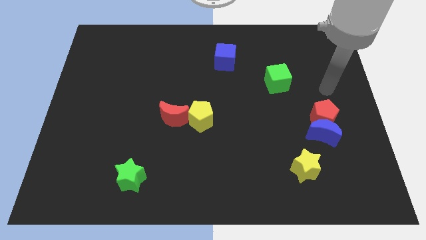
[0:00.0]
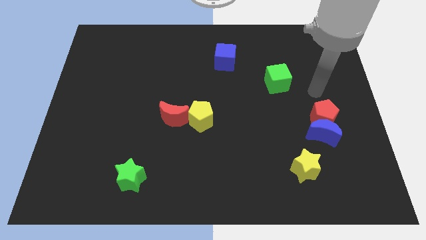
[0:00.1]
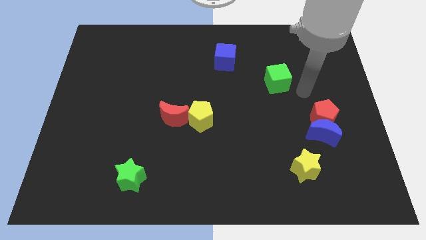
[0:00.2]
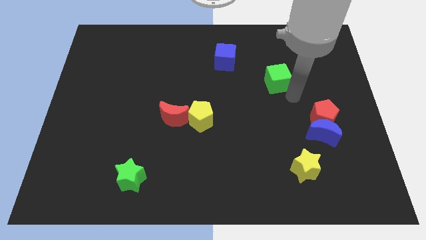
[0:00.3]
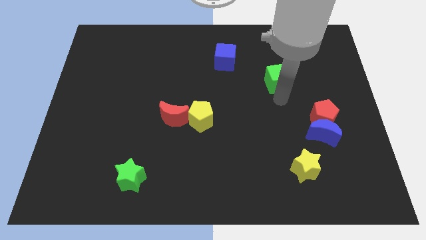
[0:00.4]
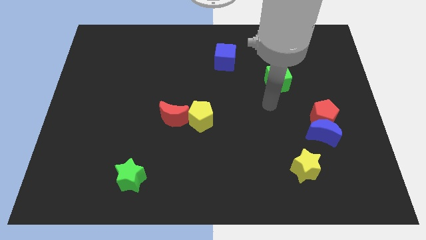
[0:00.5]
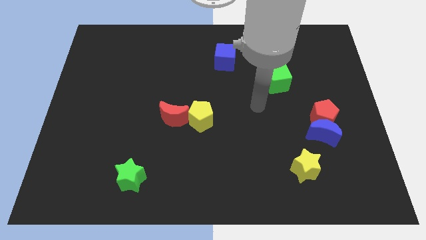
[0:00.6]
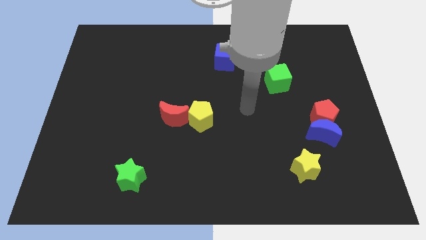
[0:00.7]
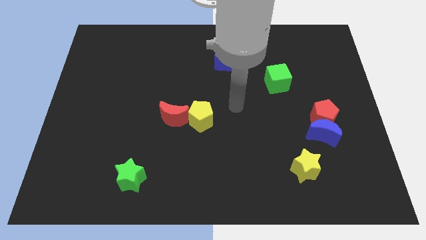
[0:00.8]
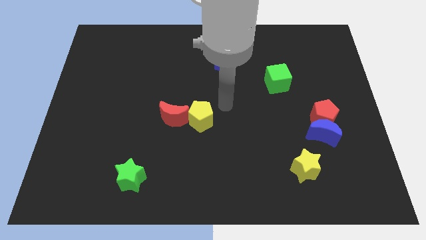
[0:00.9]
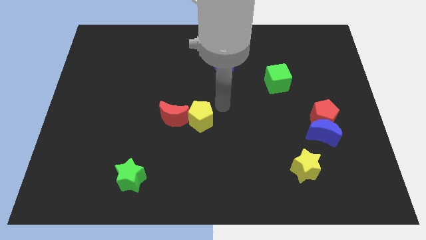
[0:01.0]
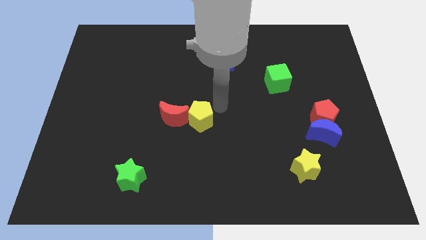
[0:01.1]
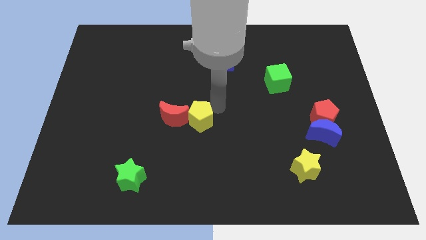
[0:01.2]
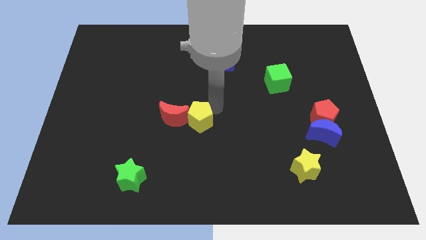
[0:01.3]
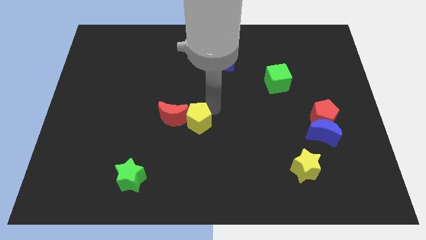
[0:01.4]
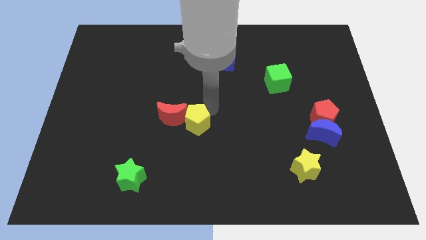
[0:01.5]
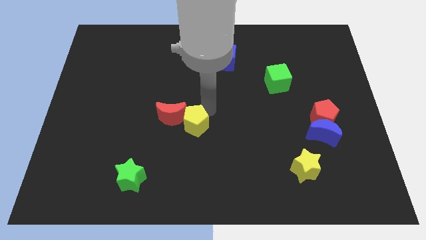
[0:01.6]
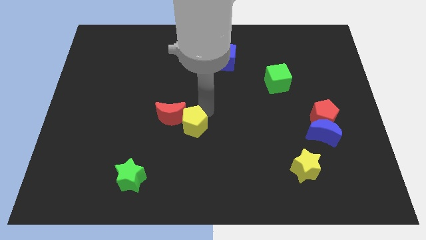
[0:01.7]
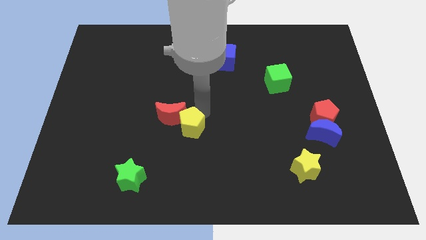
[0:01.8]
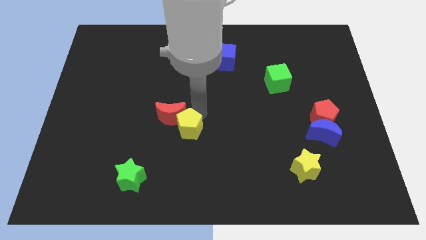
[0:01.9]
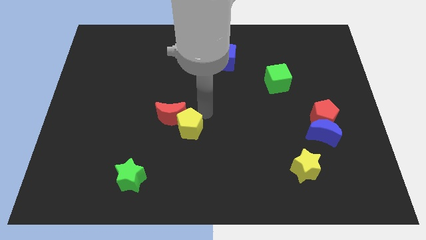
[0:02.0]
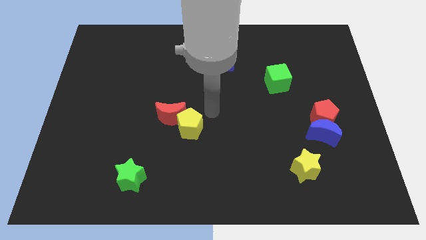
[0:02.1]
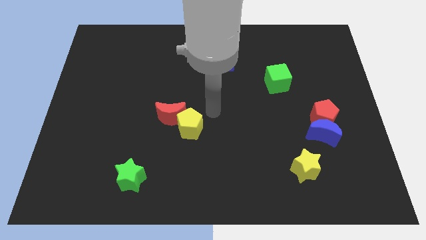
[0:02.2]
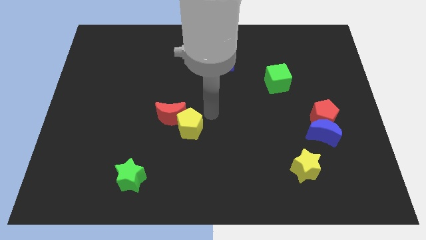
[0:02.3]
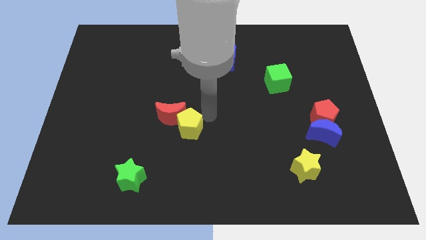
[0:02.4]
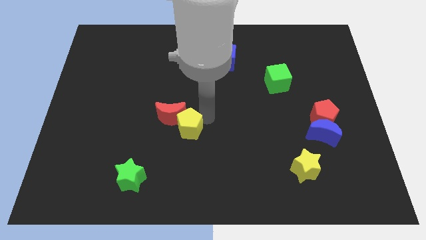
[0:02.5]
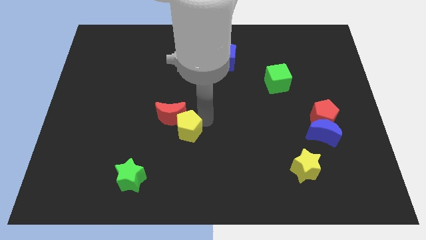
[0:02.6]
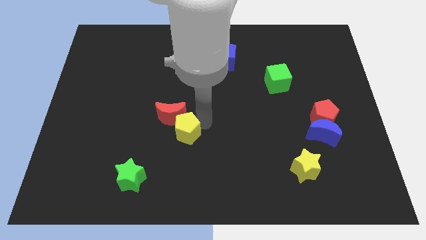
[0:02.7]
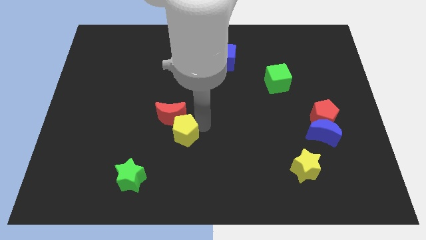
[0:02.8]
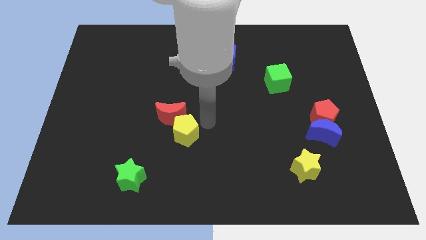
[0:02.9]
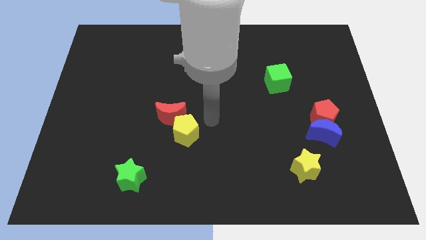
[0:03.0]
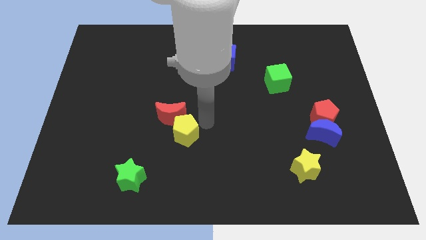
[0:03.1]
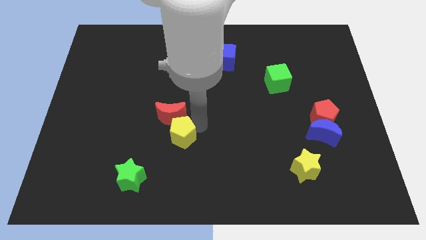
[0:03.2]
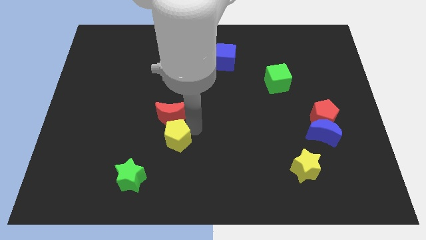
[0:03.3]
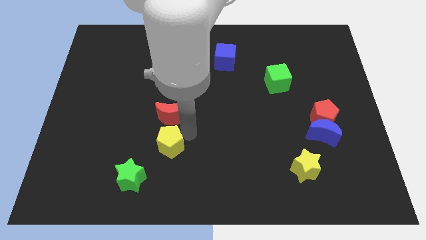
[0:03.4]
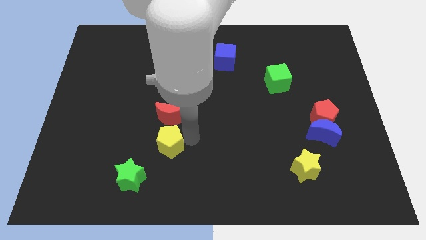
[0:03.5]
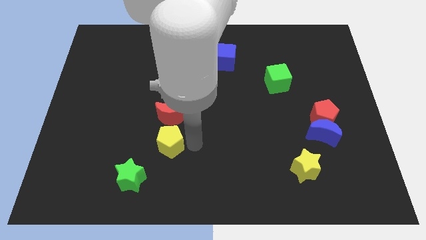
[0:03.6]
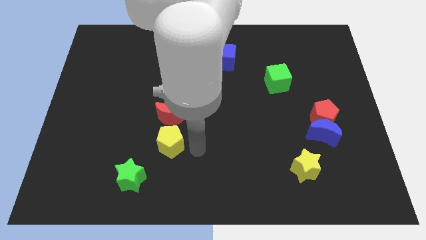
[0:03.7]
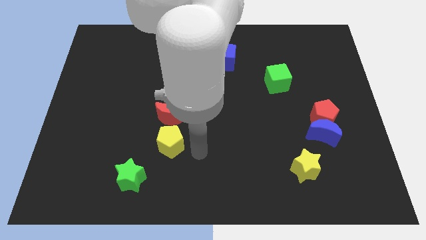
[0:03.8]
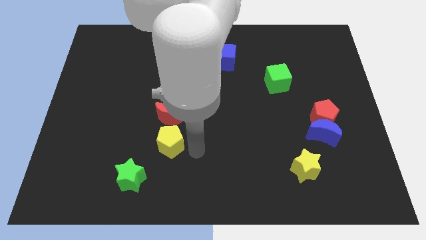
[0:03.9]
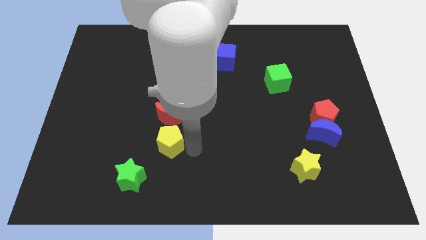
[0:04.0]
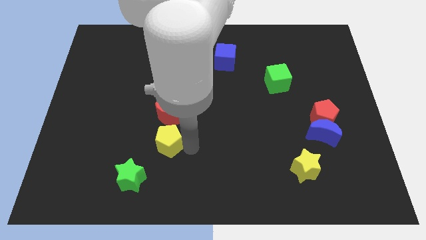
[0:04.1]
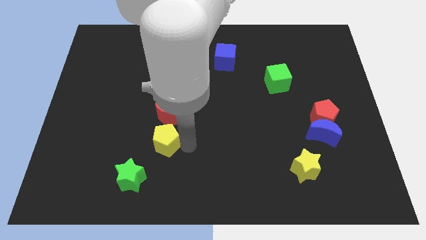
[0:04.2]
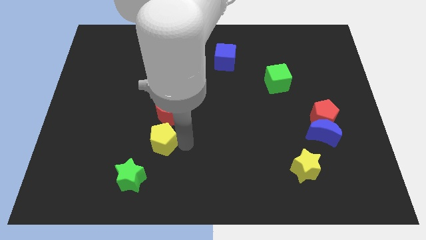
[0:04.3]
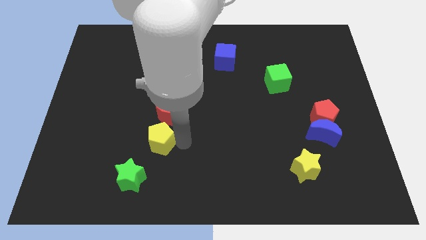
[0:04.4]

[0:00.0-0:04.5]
slightly move the yellow pentagon left

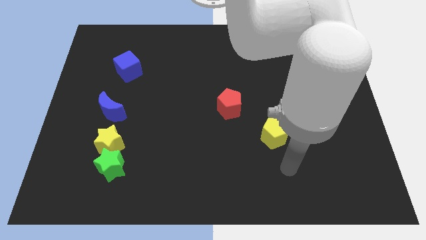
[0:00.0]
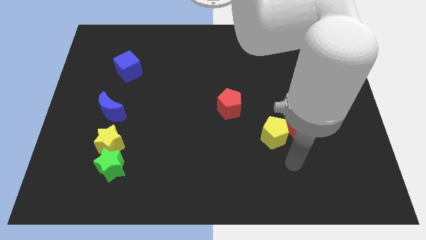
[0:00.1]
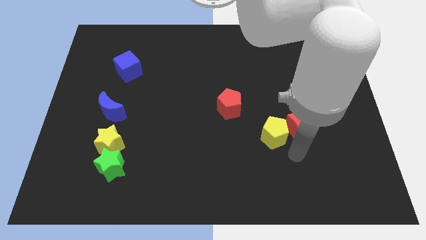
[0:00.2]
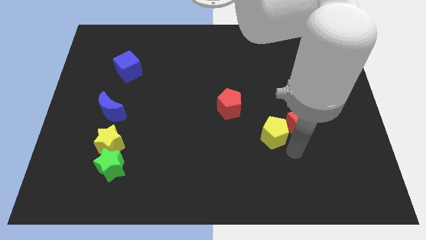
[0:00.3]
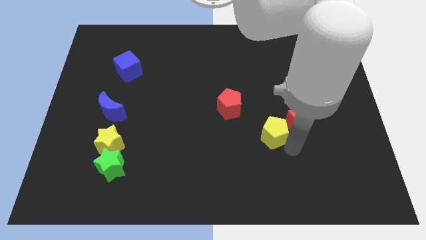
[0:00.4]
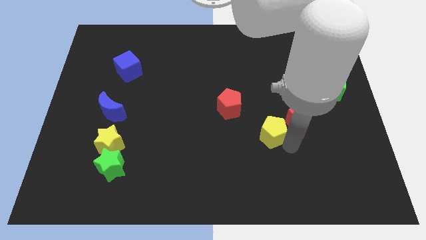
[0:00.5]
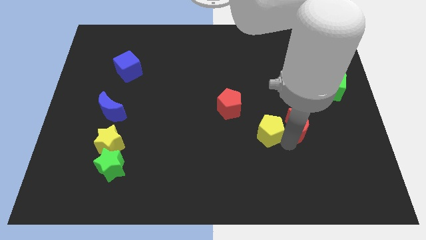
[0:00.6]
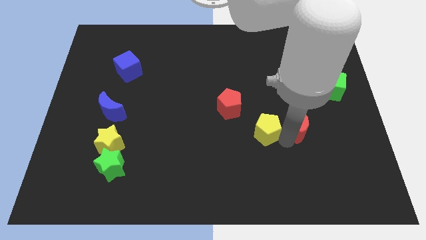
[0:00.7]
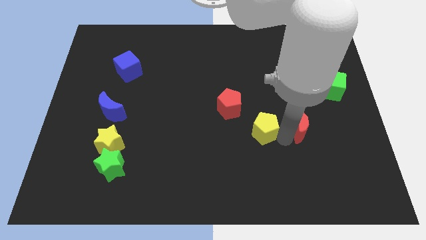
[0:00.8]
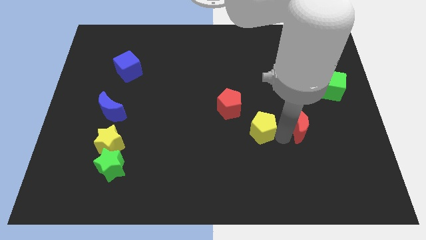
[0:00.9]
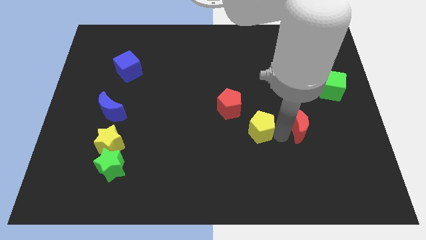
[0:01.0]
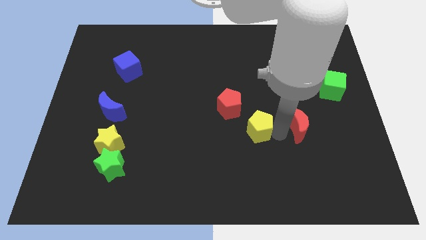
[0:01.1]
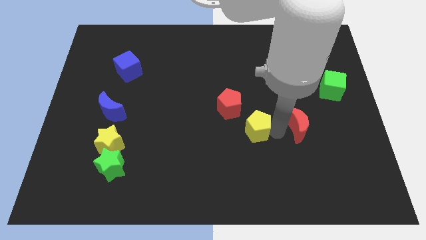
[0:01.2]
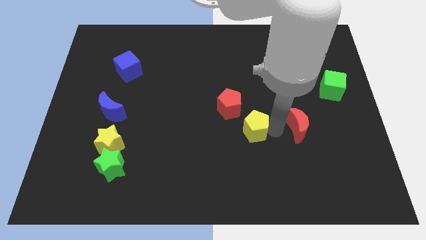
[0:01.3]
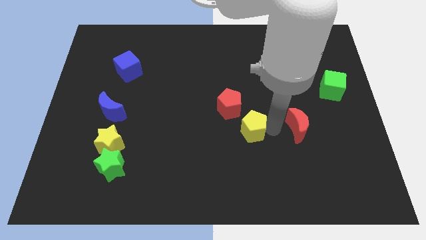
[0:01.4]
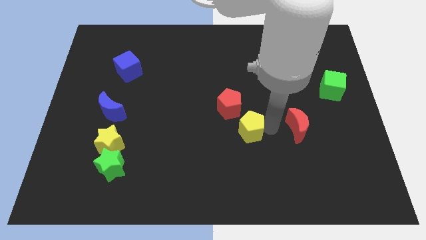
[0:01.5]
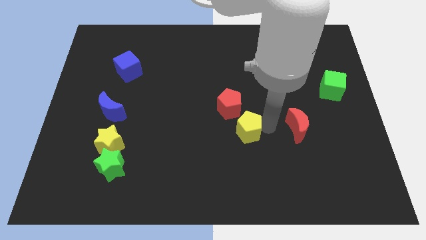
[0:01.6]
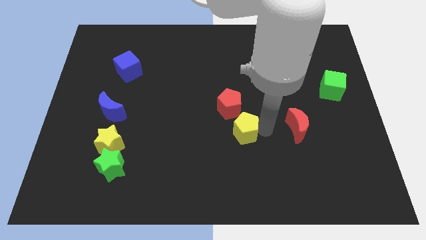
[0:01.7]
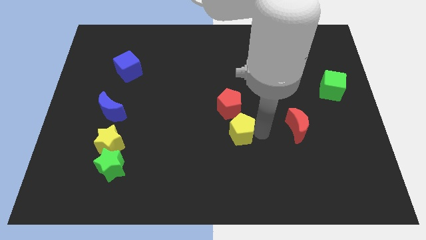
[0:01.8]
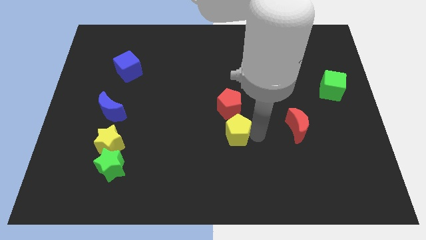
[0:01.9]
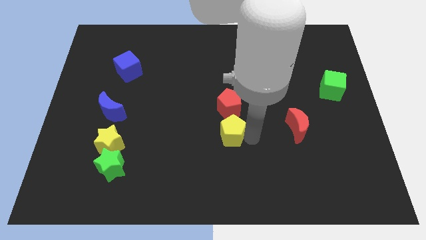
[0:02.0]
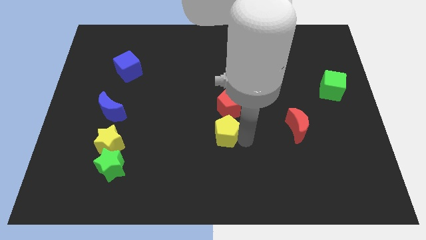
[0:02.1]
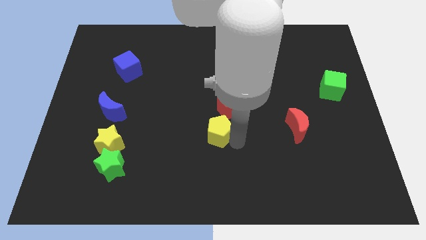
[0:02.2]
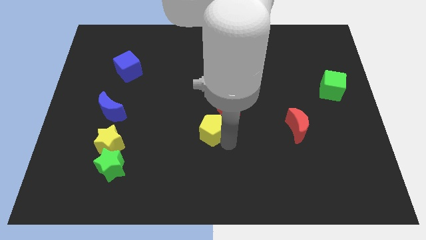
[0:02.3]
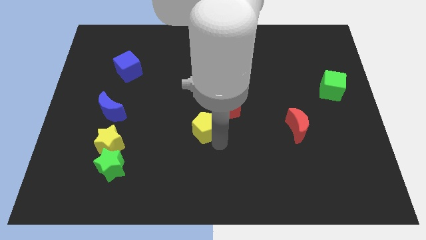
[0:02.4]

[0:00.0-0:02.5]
slide the yellow pentagon up and then left slightly

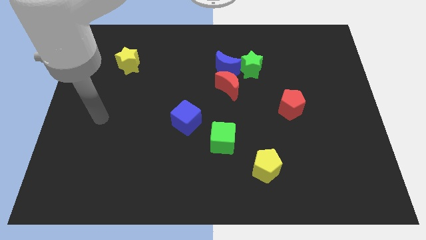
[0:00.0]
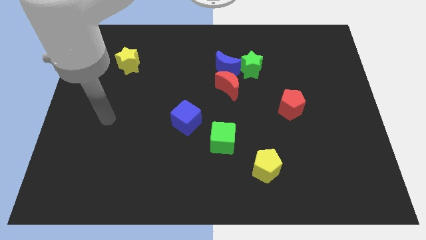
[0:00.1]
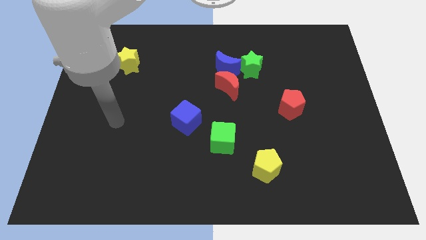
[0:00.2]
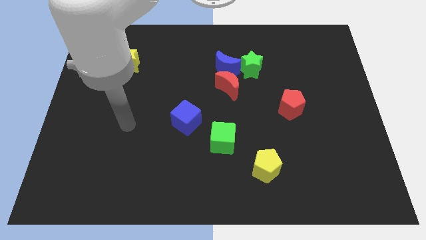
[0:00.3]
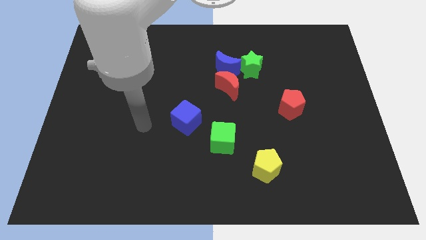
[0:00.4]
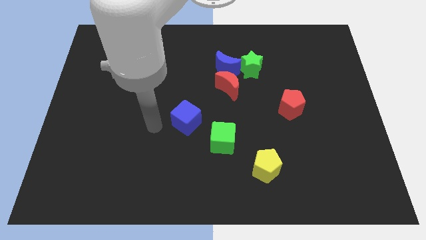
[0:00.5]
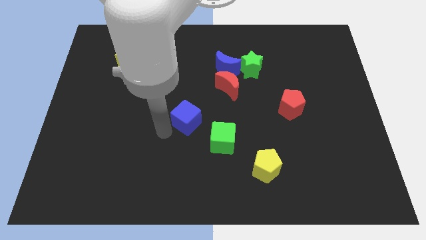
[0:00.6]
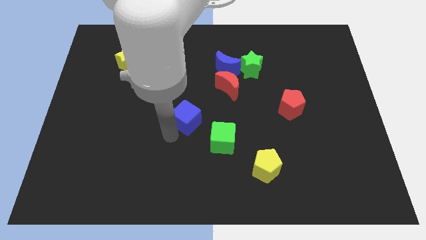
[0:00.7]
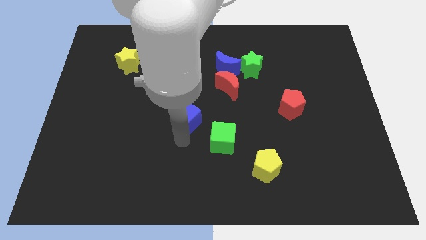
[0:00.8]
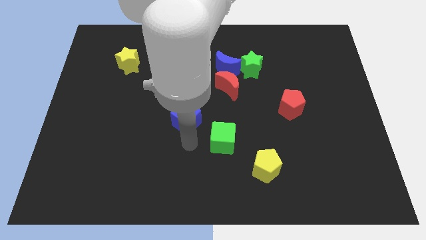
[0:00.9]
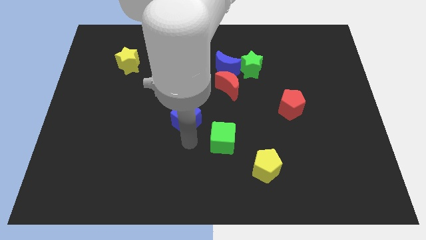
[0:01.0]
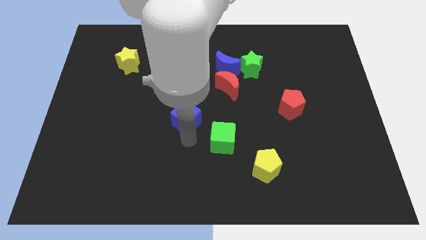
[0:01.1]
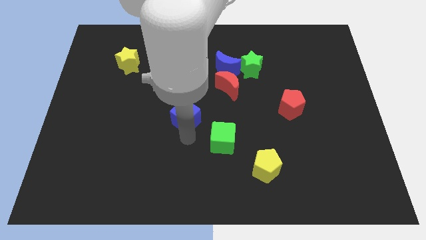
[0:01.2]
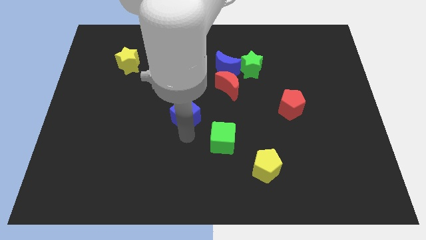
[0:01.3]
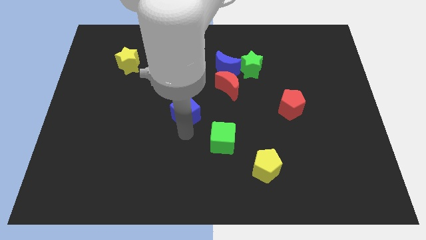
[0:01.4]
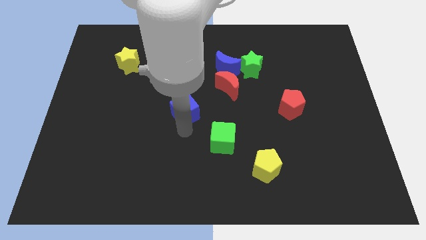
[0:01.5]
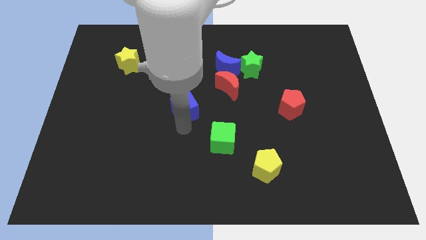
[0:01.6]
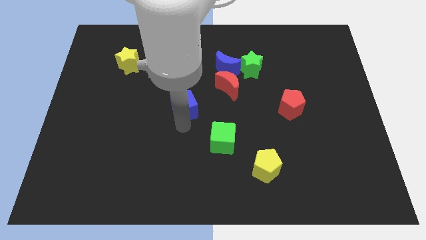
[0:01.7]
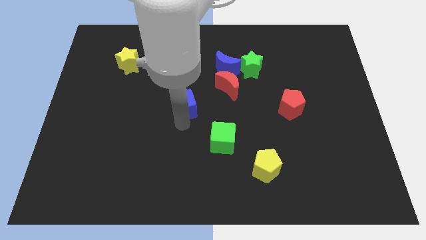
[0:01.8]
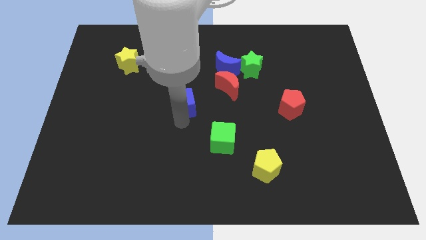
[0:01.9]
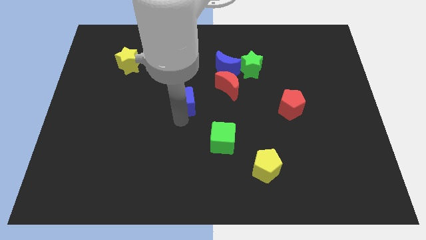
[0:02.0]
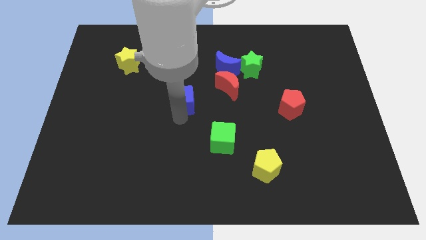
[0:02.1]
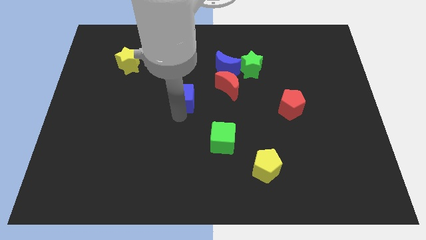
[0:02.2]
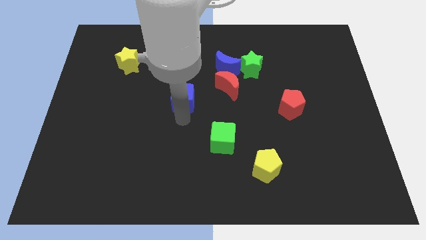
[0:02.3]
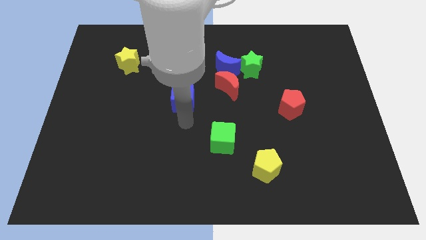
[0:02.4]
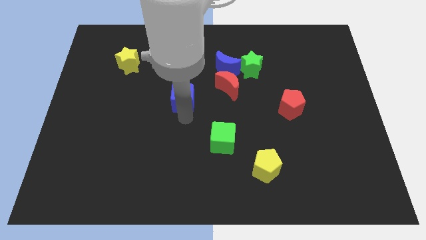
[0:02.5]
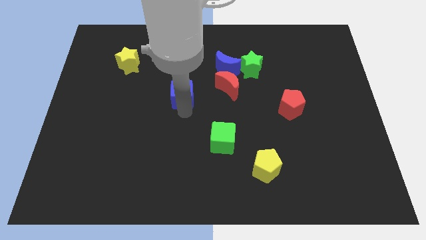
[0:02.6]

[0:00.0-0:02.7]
move the blue cube up a little
